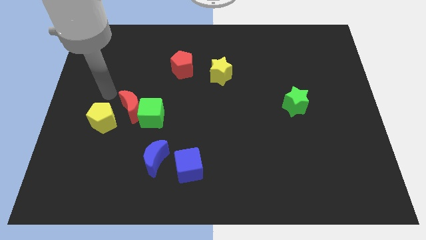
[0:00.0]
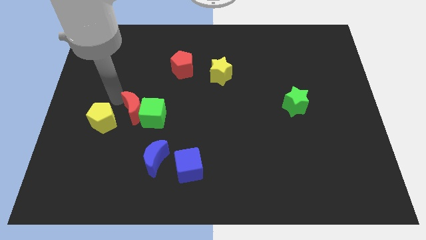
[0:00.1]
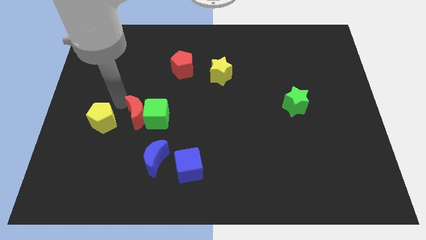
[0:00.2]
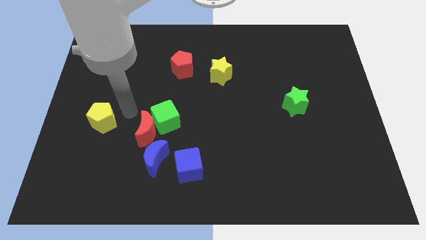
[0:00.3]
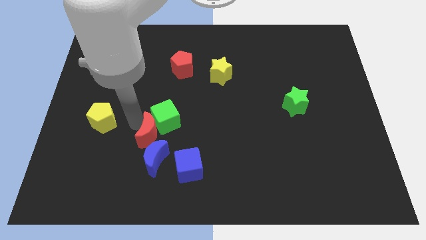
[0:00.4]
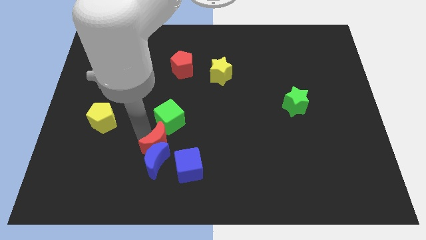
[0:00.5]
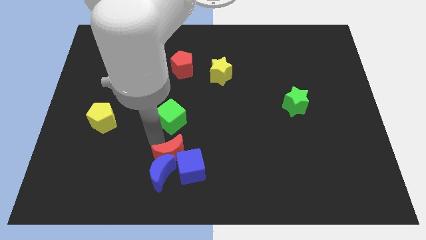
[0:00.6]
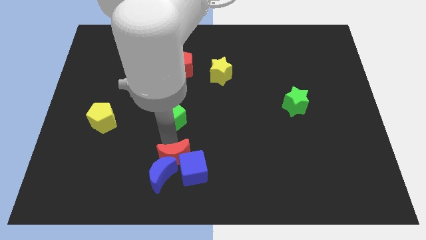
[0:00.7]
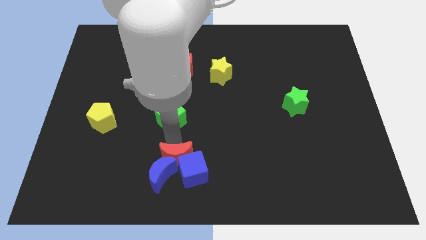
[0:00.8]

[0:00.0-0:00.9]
pull the green cube apart from the red moon

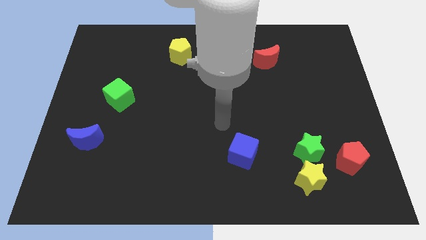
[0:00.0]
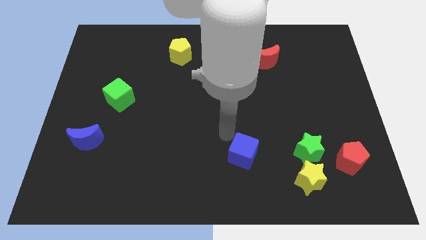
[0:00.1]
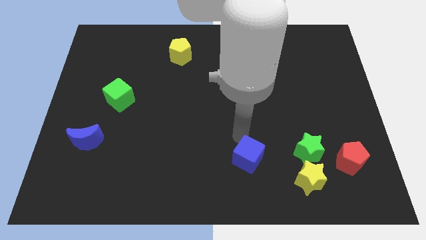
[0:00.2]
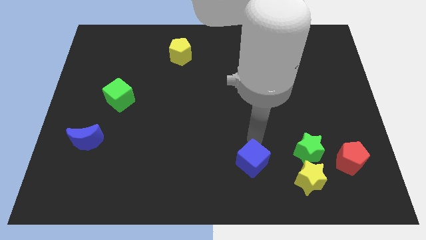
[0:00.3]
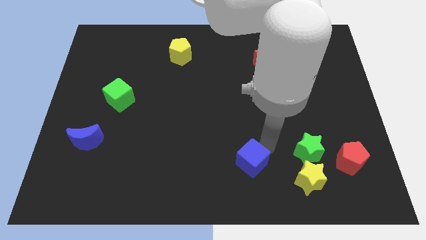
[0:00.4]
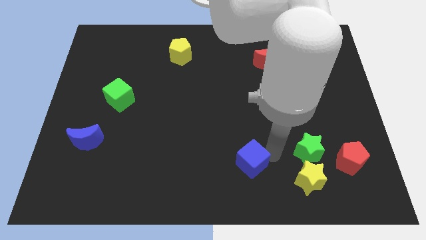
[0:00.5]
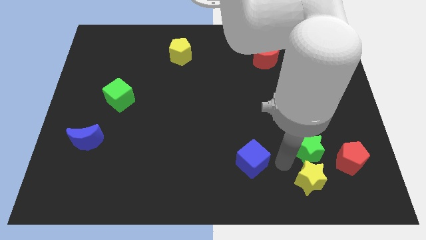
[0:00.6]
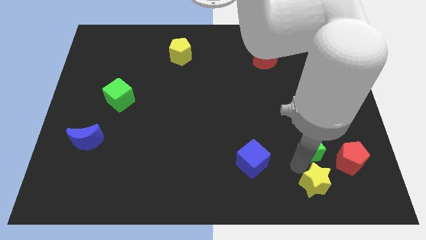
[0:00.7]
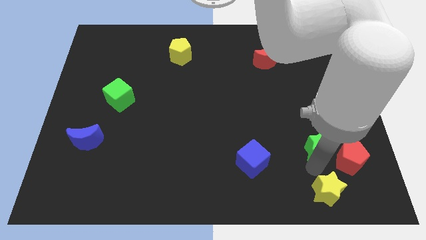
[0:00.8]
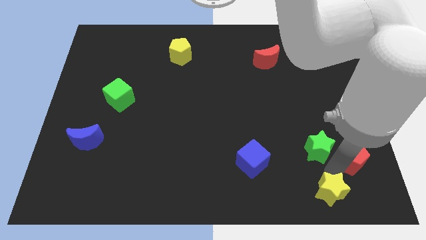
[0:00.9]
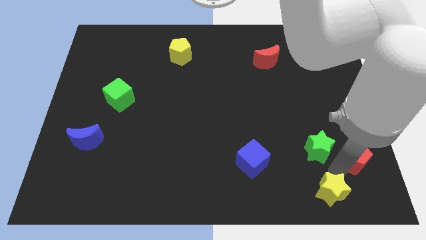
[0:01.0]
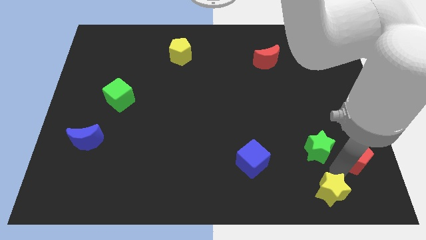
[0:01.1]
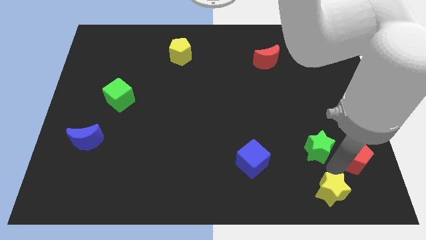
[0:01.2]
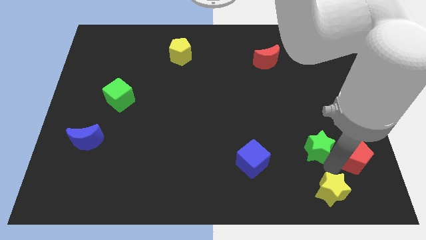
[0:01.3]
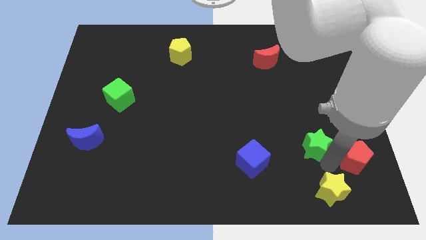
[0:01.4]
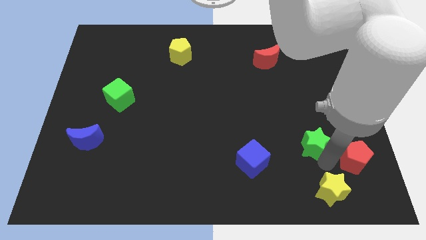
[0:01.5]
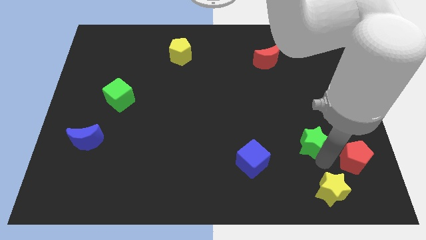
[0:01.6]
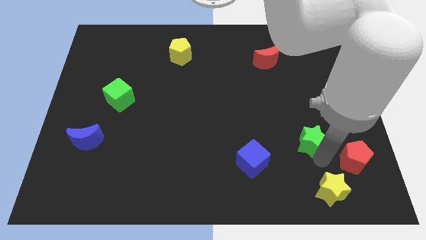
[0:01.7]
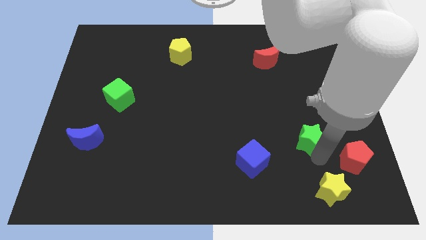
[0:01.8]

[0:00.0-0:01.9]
move the green star away from the yellow star and red pentagon

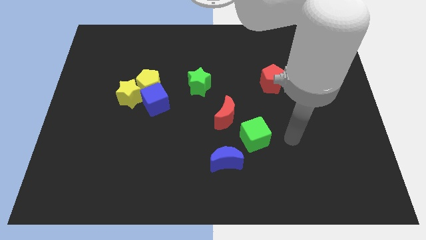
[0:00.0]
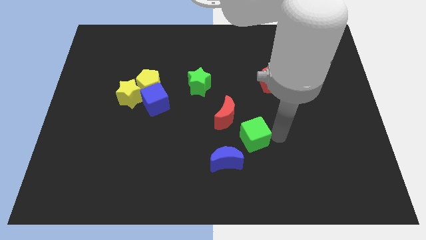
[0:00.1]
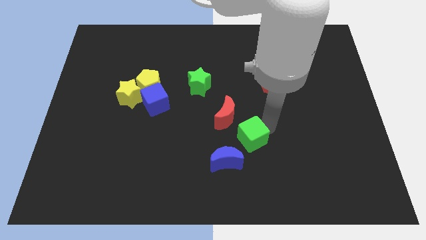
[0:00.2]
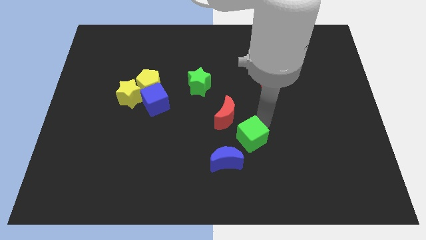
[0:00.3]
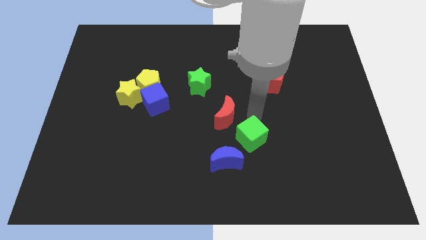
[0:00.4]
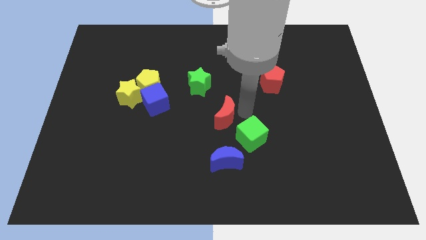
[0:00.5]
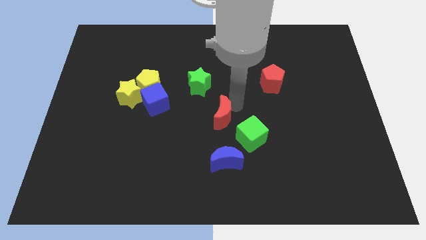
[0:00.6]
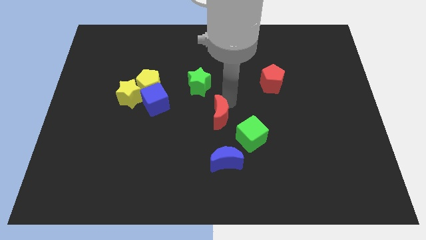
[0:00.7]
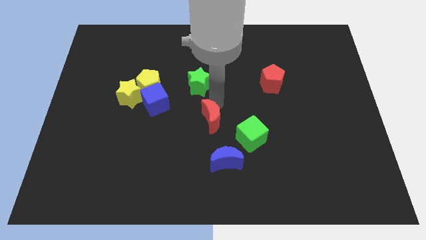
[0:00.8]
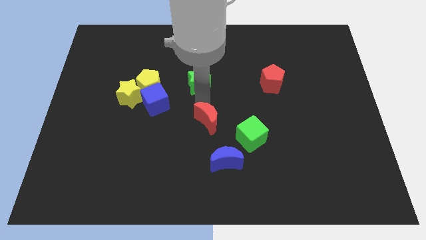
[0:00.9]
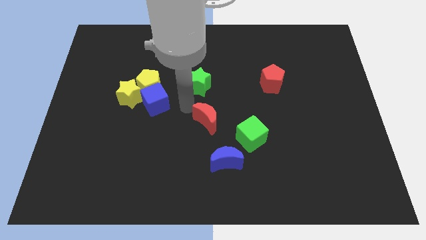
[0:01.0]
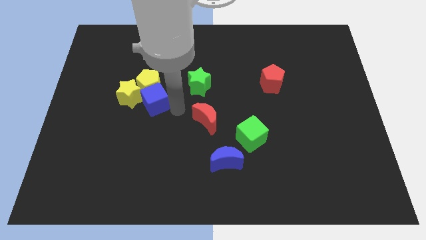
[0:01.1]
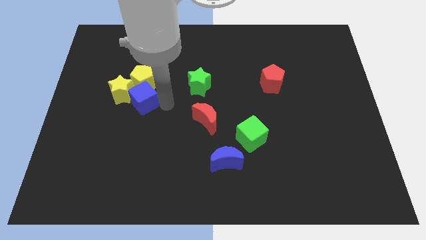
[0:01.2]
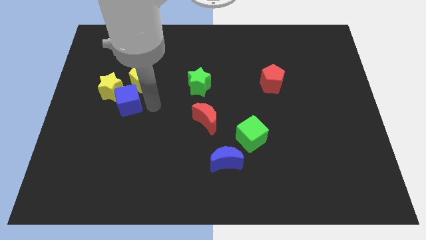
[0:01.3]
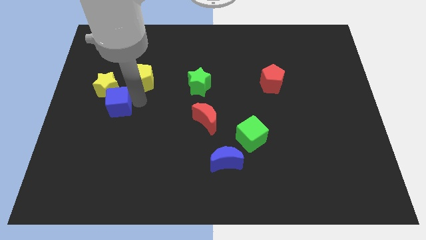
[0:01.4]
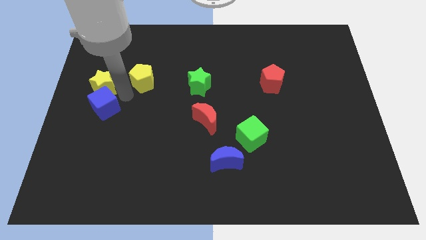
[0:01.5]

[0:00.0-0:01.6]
pull the yellow pentagon apart from the blue cube and yellow star

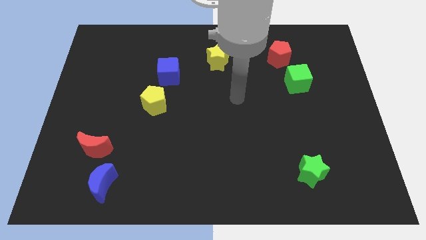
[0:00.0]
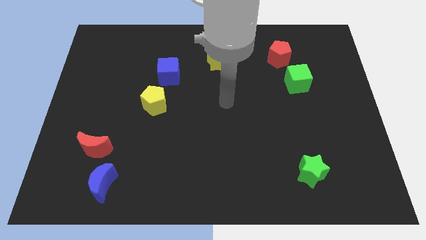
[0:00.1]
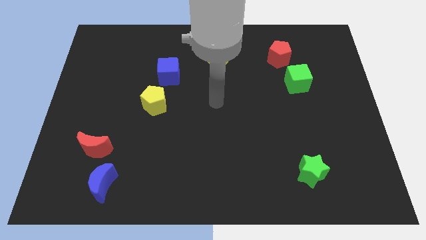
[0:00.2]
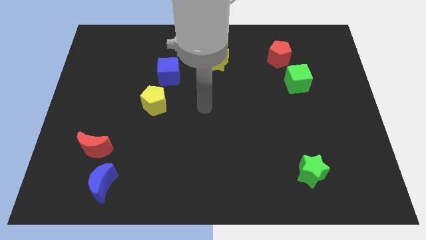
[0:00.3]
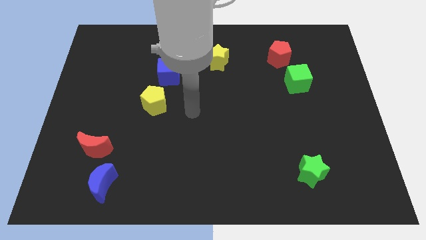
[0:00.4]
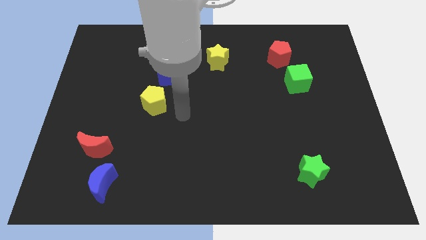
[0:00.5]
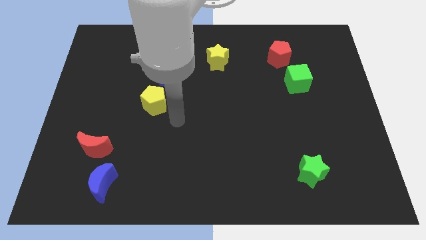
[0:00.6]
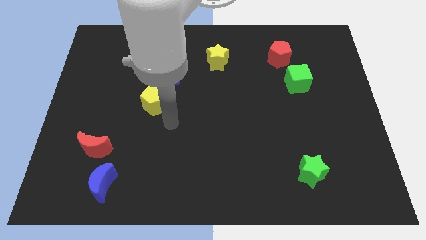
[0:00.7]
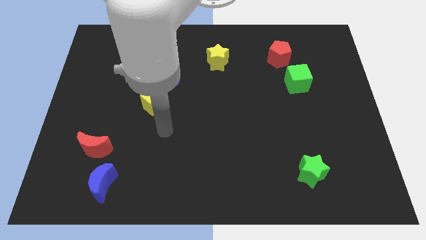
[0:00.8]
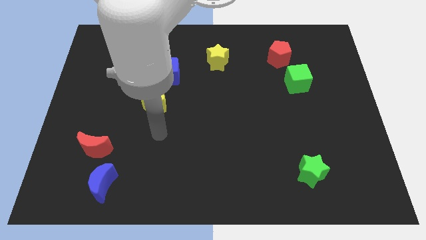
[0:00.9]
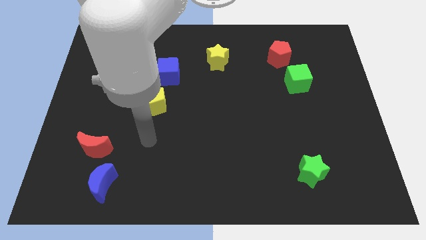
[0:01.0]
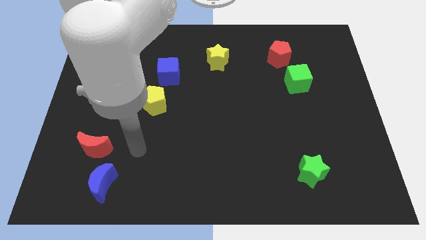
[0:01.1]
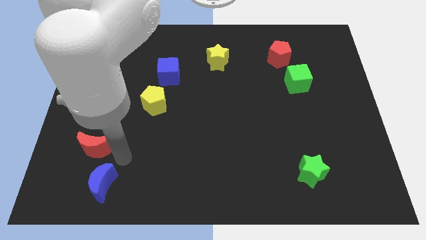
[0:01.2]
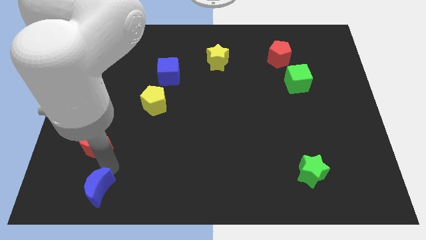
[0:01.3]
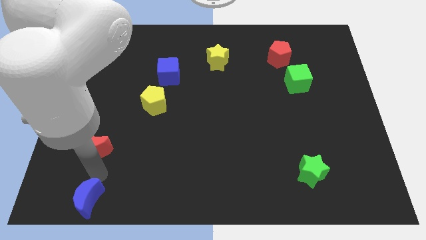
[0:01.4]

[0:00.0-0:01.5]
separate the red moon from the blue moon

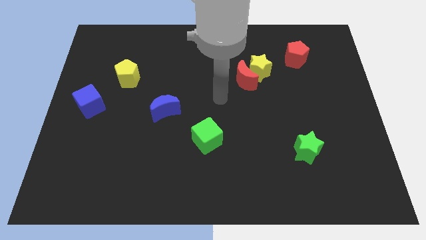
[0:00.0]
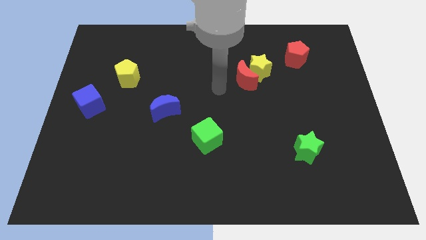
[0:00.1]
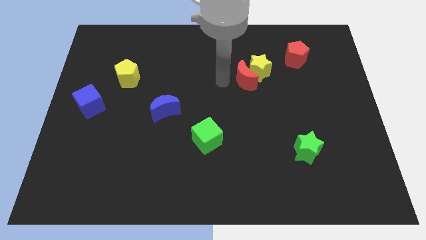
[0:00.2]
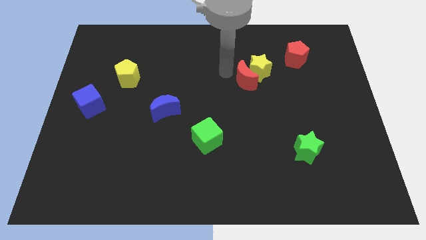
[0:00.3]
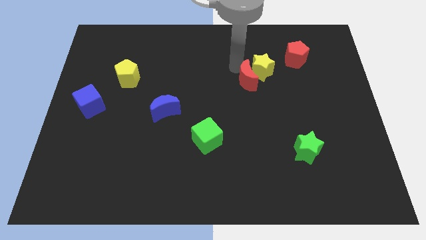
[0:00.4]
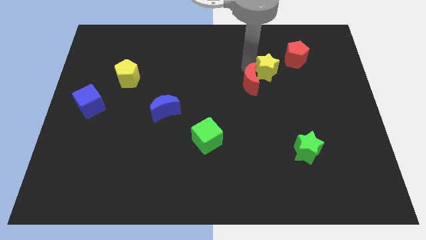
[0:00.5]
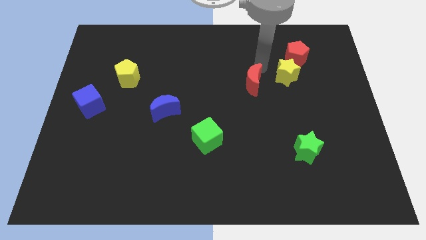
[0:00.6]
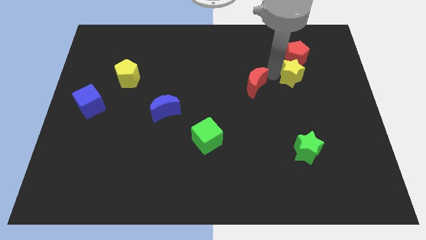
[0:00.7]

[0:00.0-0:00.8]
pull the red moon apart from the yellow star

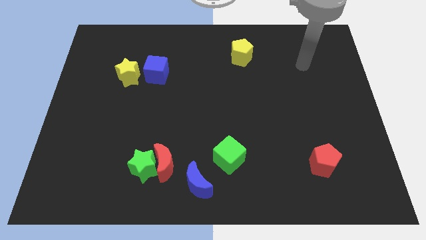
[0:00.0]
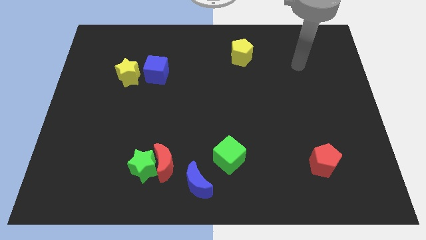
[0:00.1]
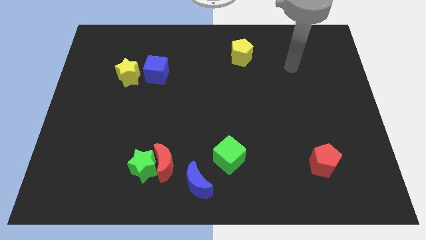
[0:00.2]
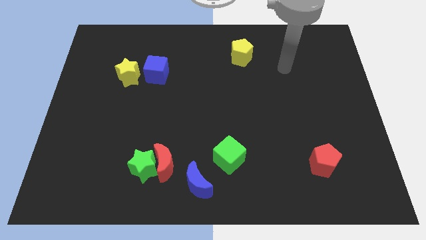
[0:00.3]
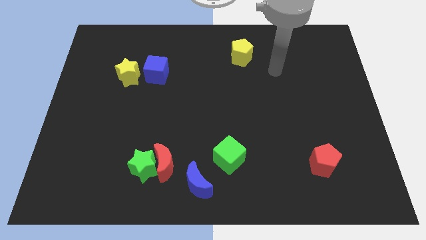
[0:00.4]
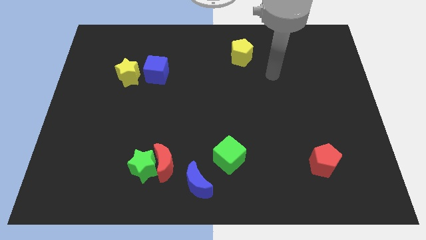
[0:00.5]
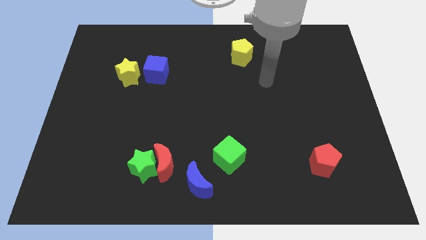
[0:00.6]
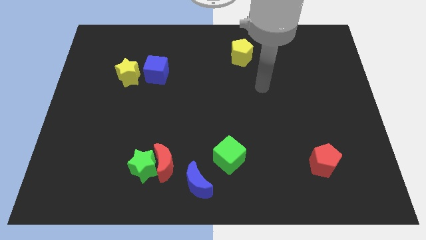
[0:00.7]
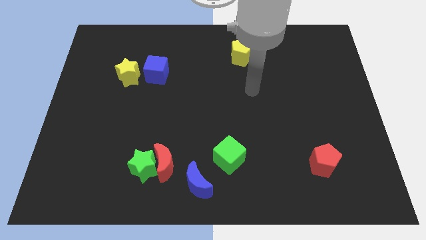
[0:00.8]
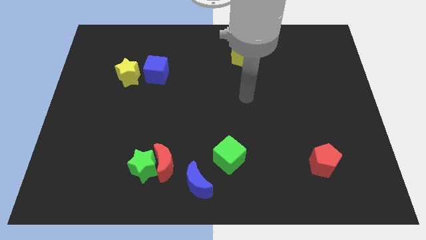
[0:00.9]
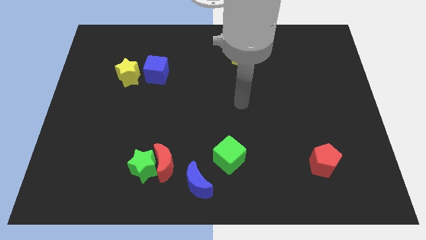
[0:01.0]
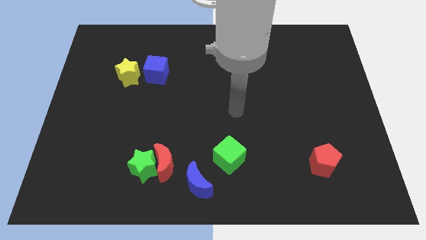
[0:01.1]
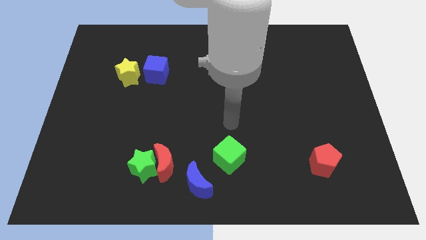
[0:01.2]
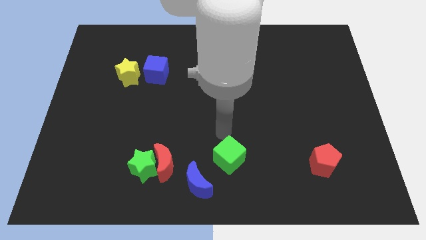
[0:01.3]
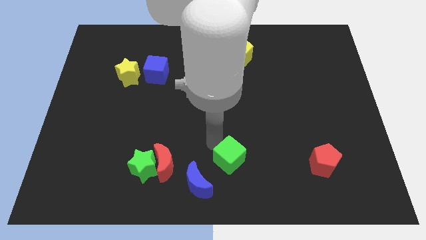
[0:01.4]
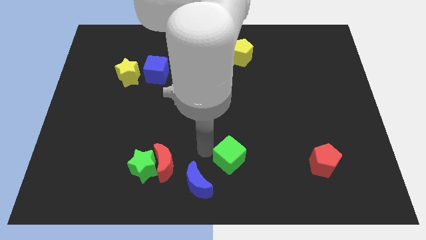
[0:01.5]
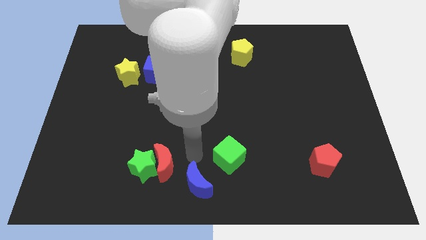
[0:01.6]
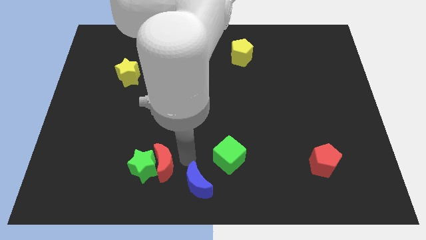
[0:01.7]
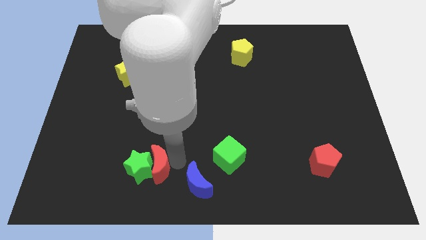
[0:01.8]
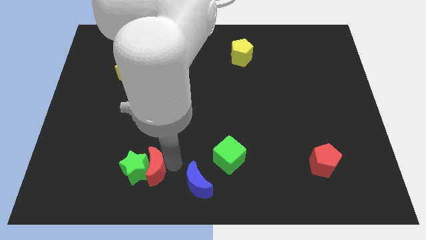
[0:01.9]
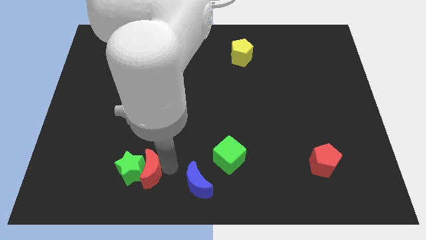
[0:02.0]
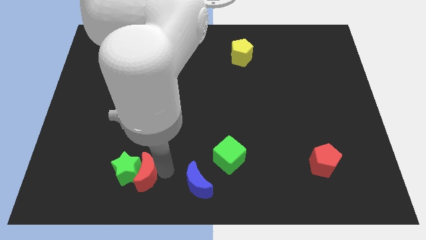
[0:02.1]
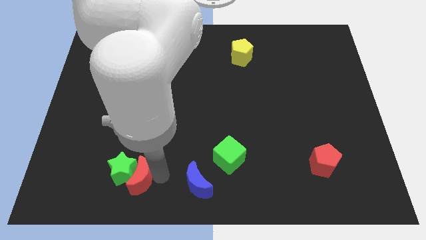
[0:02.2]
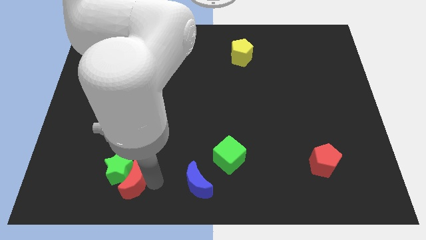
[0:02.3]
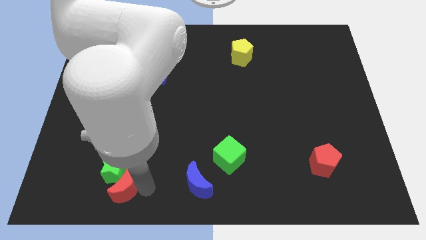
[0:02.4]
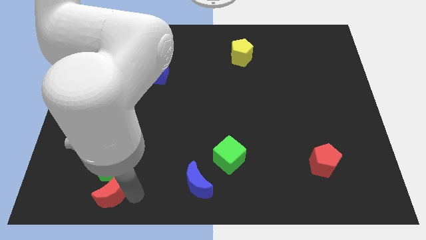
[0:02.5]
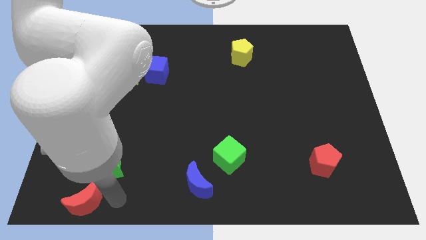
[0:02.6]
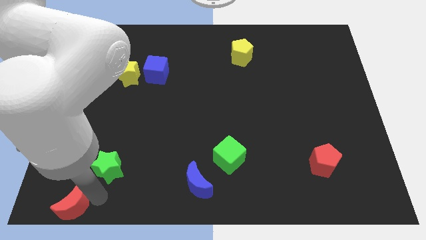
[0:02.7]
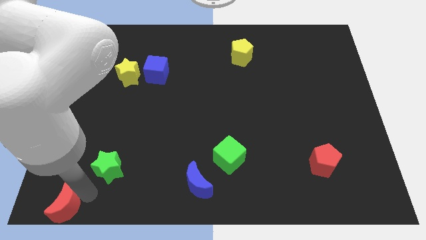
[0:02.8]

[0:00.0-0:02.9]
separate the green star from the red moon
